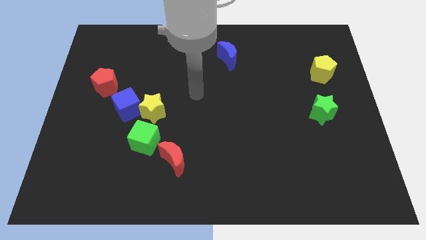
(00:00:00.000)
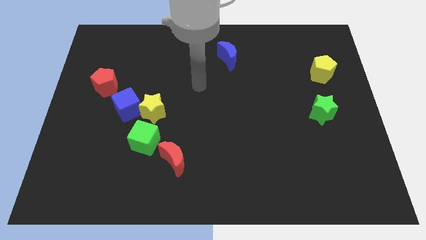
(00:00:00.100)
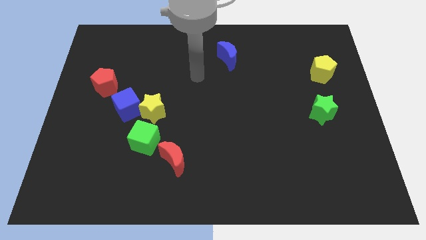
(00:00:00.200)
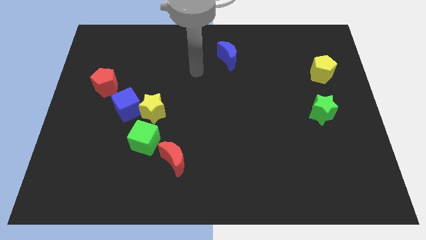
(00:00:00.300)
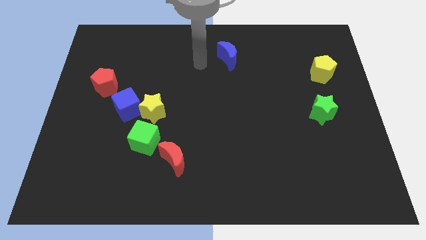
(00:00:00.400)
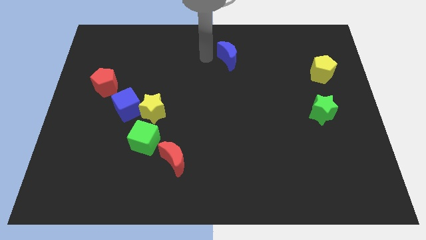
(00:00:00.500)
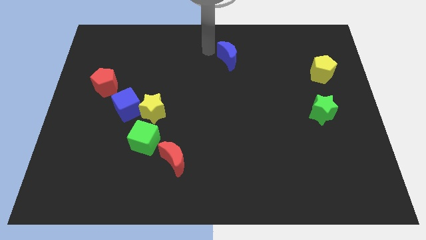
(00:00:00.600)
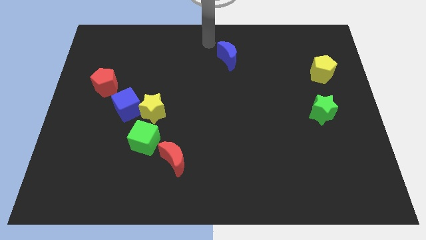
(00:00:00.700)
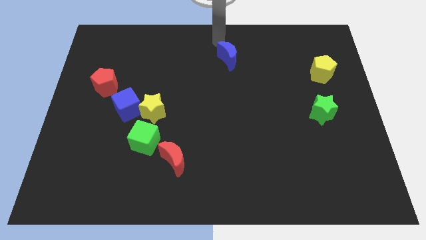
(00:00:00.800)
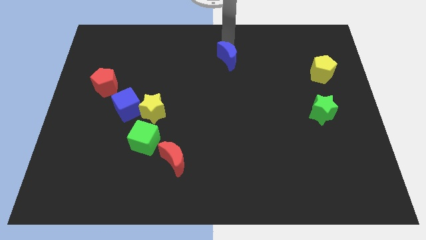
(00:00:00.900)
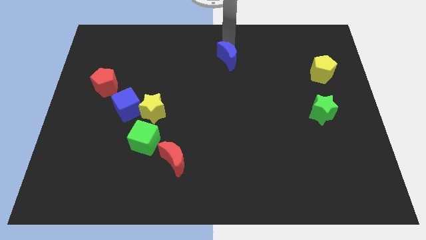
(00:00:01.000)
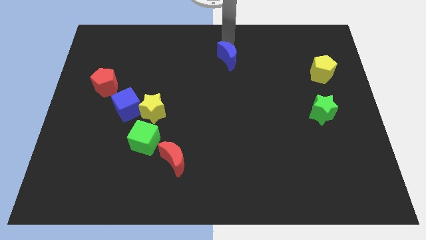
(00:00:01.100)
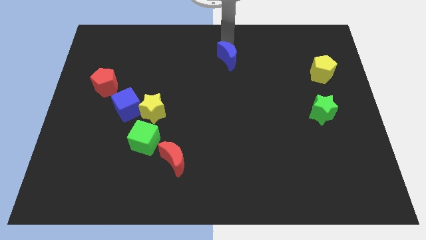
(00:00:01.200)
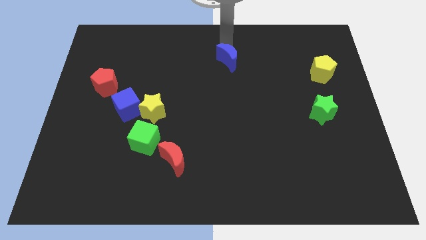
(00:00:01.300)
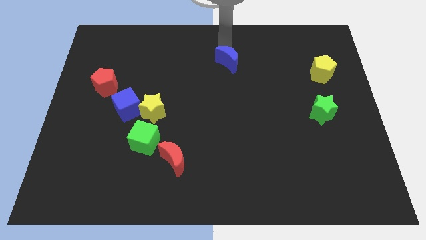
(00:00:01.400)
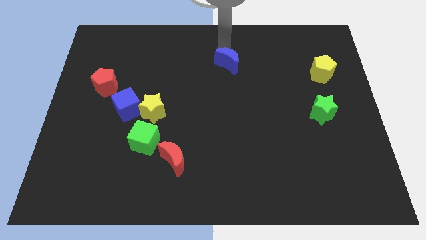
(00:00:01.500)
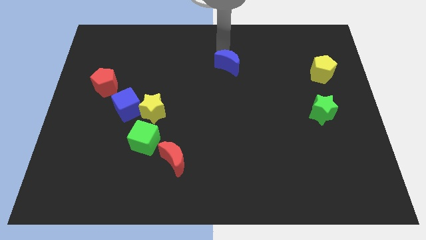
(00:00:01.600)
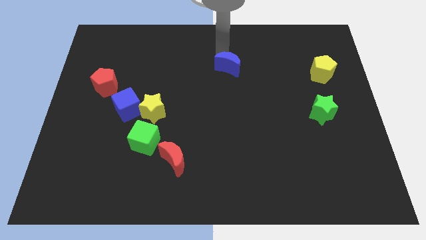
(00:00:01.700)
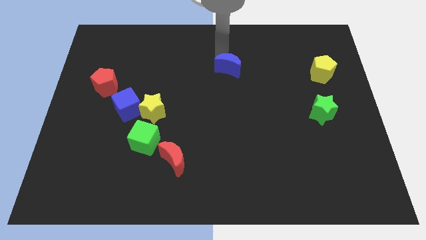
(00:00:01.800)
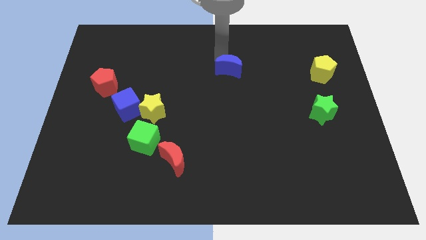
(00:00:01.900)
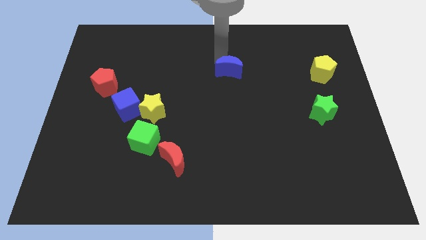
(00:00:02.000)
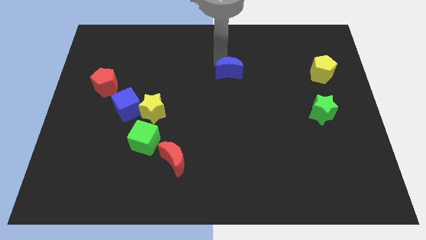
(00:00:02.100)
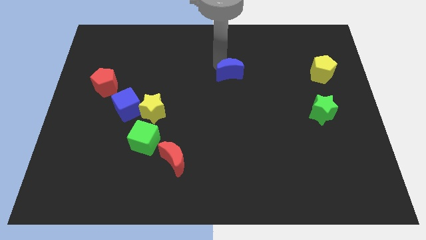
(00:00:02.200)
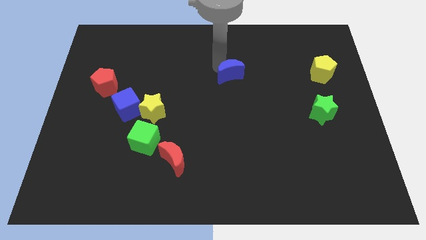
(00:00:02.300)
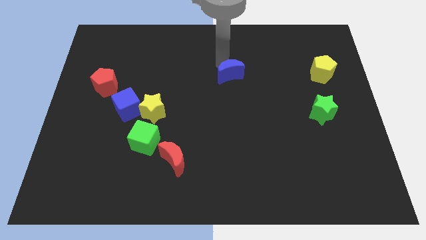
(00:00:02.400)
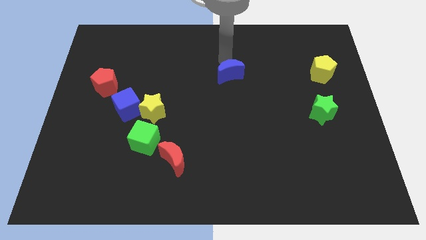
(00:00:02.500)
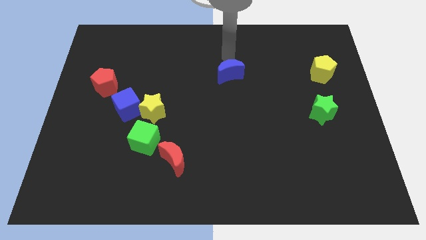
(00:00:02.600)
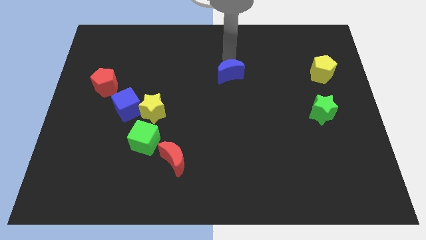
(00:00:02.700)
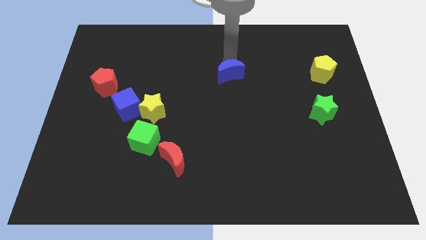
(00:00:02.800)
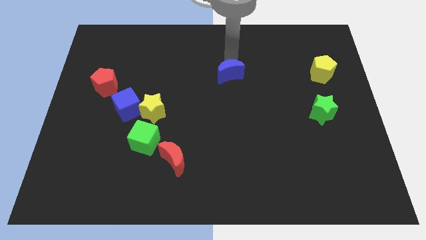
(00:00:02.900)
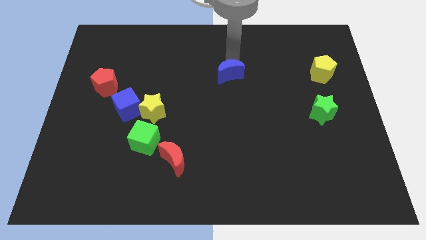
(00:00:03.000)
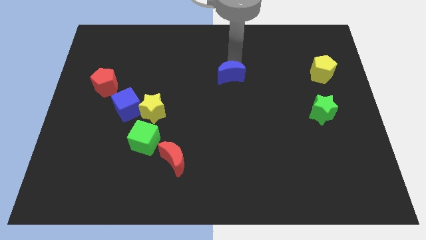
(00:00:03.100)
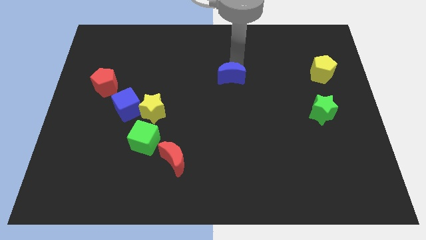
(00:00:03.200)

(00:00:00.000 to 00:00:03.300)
slightly slide the blue moon down

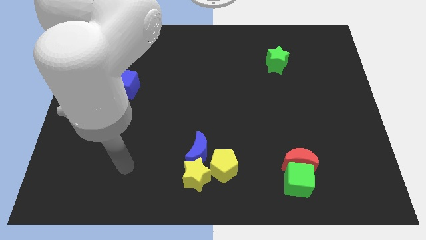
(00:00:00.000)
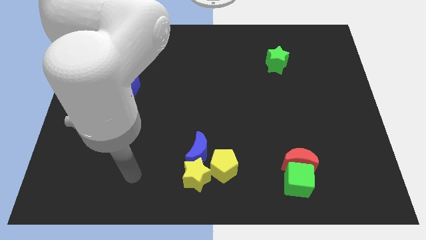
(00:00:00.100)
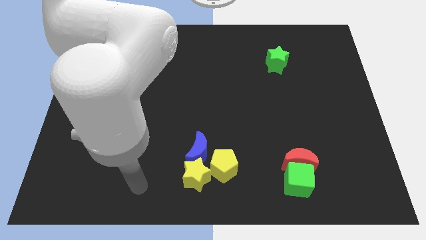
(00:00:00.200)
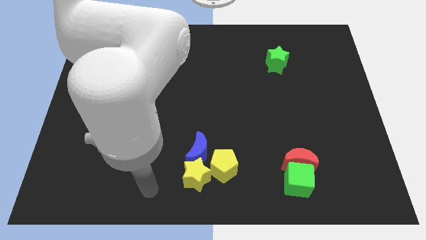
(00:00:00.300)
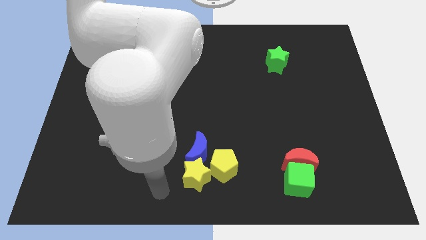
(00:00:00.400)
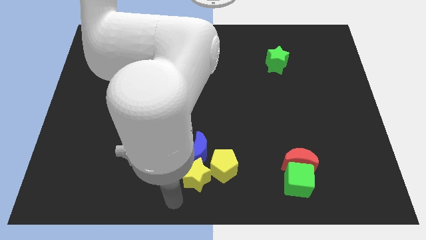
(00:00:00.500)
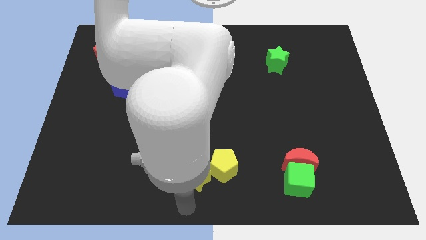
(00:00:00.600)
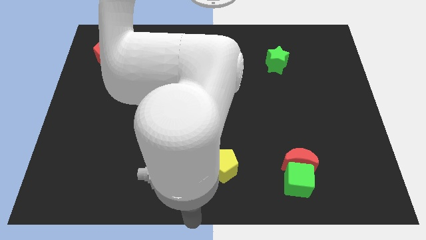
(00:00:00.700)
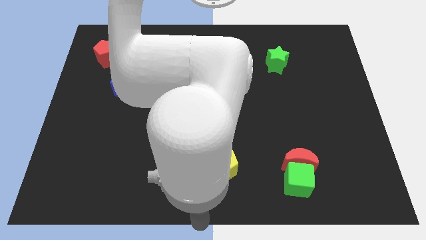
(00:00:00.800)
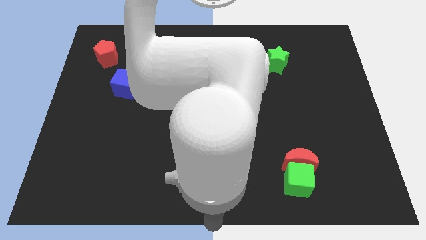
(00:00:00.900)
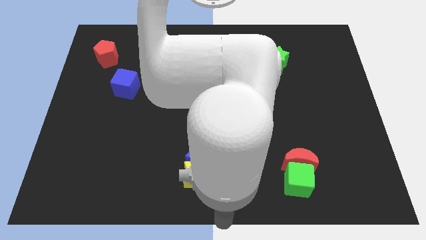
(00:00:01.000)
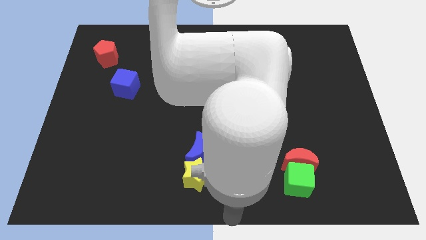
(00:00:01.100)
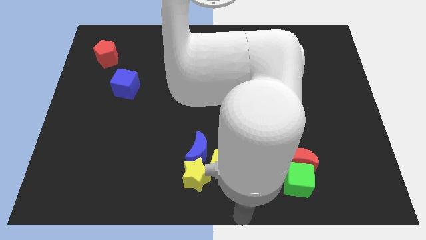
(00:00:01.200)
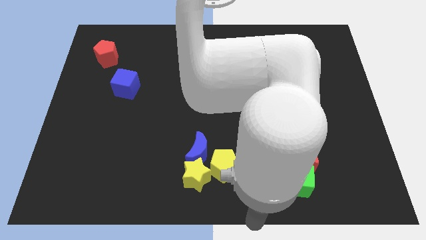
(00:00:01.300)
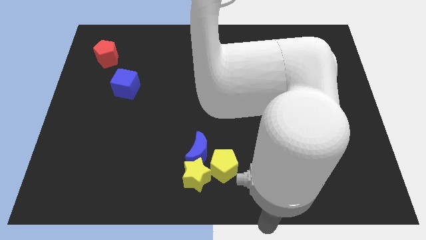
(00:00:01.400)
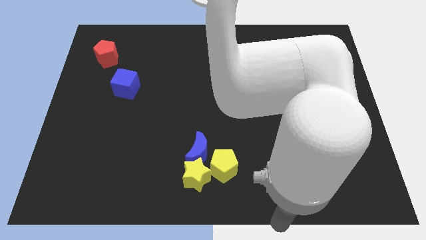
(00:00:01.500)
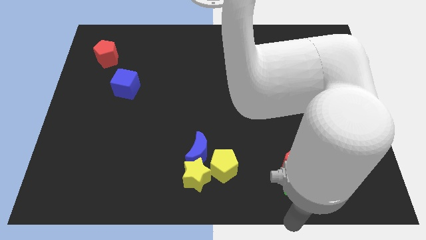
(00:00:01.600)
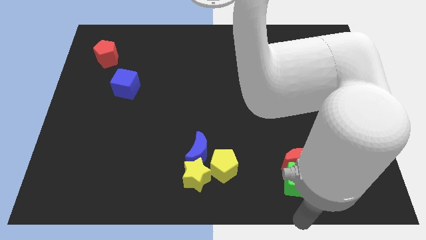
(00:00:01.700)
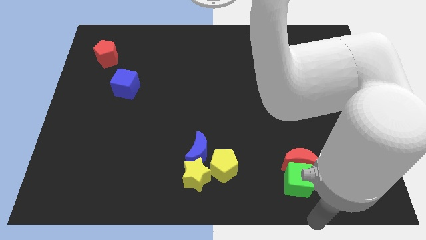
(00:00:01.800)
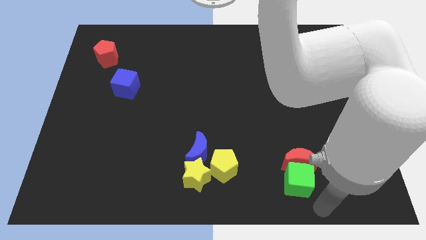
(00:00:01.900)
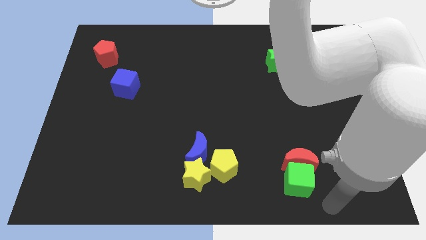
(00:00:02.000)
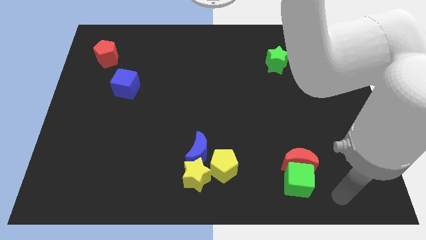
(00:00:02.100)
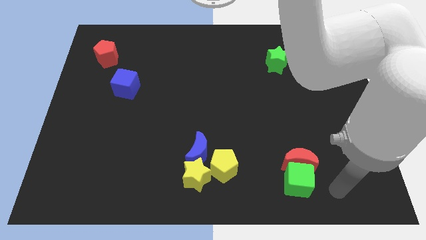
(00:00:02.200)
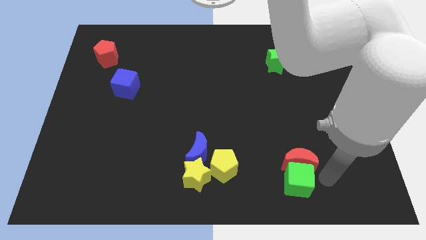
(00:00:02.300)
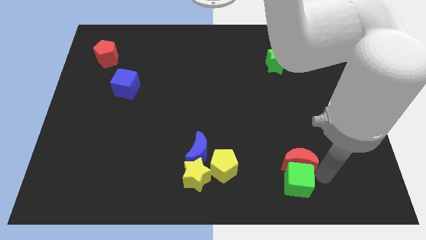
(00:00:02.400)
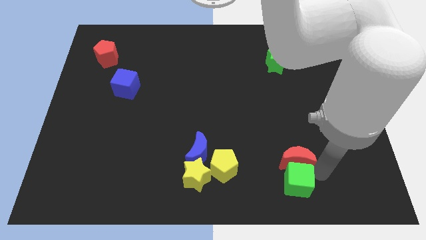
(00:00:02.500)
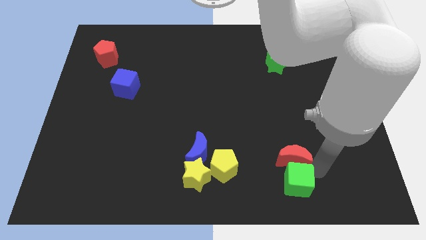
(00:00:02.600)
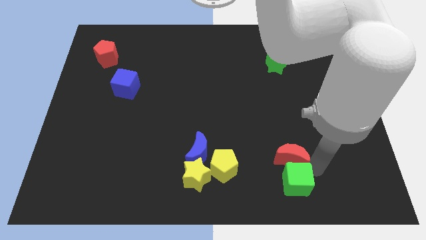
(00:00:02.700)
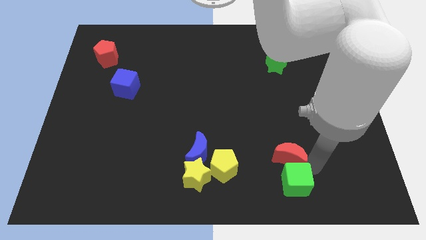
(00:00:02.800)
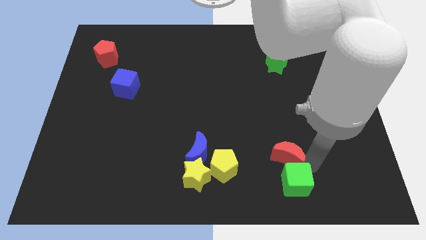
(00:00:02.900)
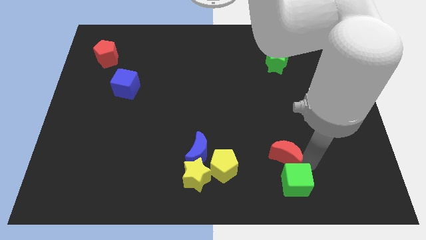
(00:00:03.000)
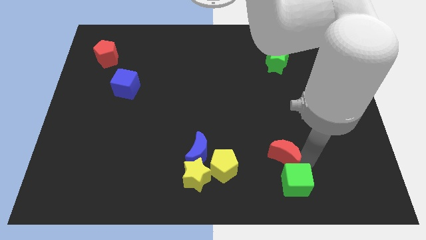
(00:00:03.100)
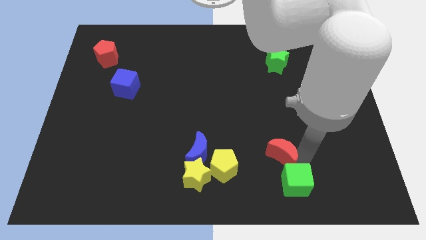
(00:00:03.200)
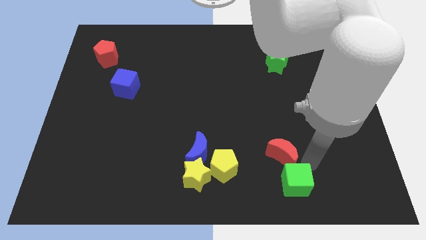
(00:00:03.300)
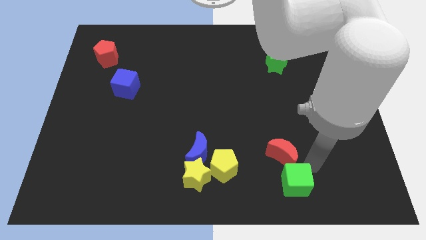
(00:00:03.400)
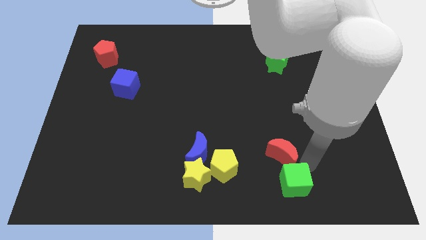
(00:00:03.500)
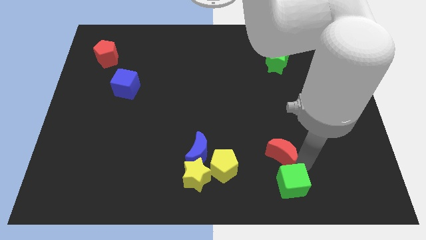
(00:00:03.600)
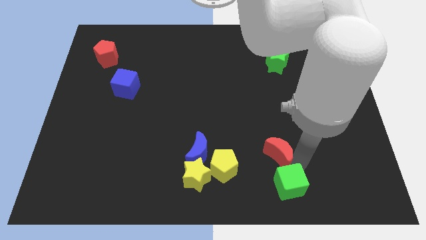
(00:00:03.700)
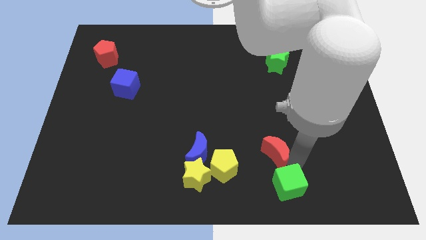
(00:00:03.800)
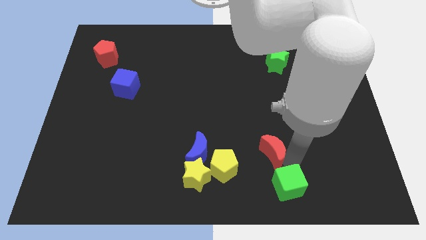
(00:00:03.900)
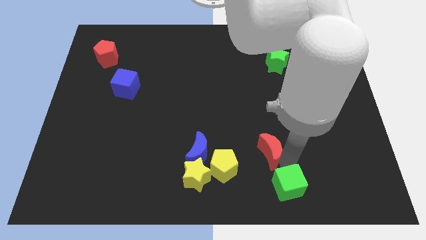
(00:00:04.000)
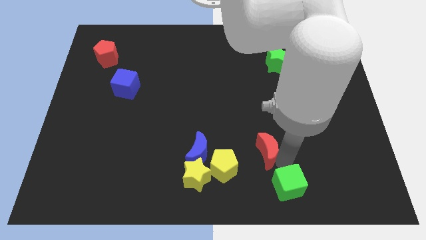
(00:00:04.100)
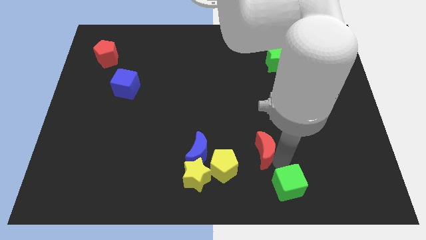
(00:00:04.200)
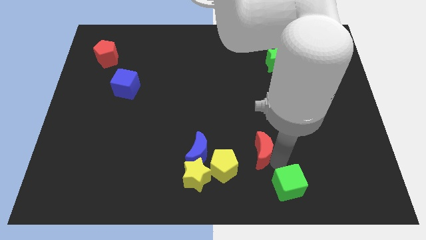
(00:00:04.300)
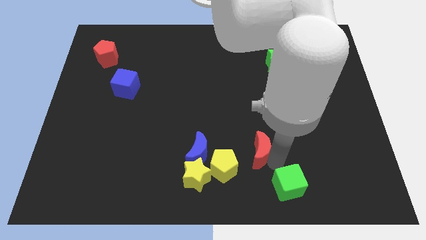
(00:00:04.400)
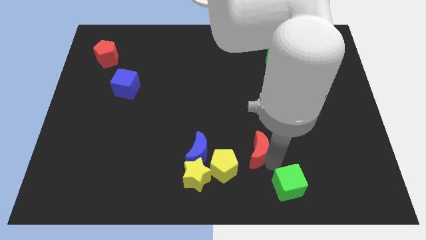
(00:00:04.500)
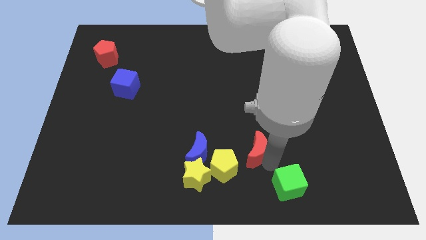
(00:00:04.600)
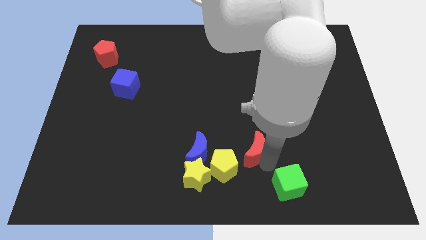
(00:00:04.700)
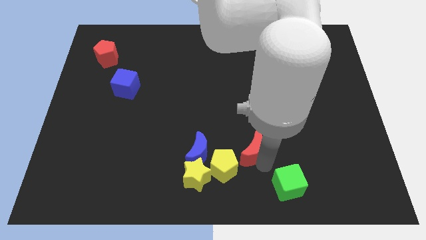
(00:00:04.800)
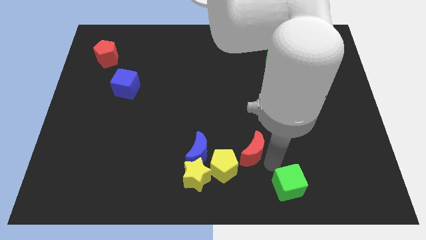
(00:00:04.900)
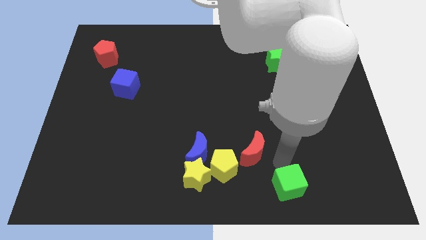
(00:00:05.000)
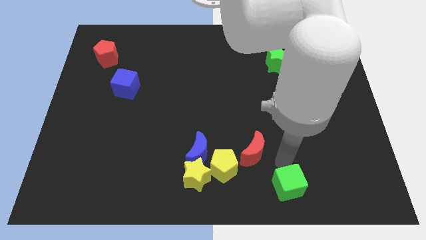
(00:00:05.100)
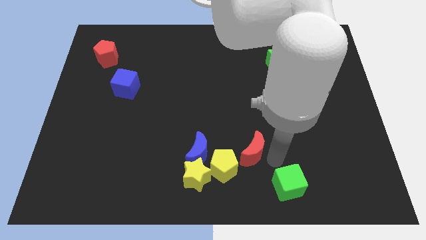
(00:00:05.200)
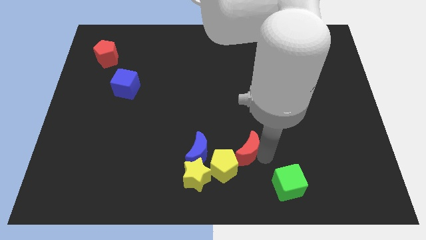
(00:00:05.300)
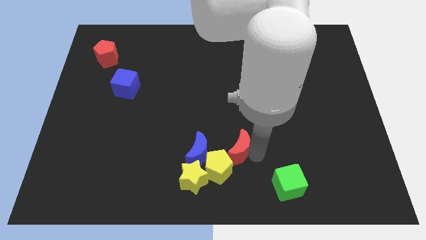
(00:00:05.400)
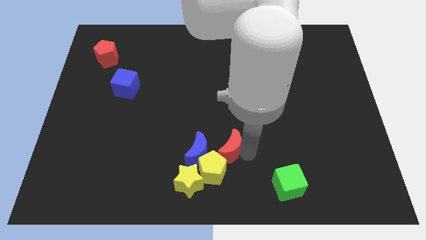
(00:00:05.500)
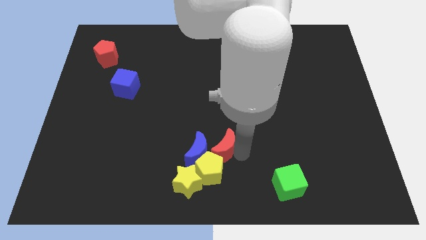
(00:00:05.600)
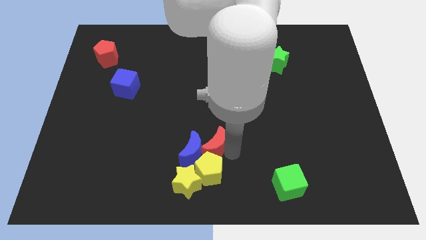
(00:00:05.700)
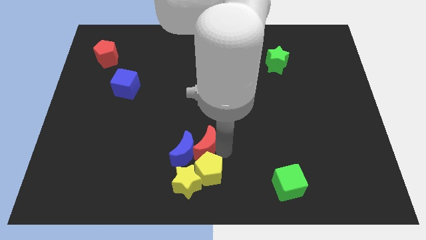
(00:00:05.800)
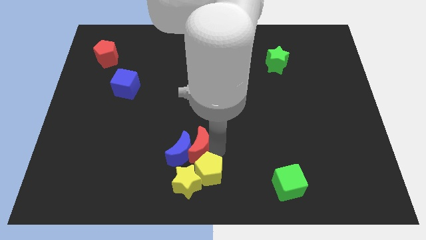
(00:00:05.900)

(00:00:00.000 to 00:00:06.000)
push the red moon to the left
